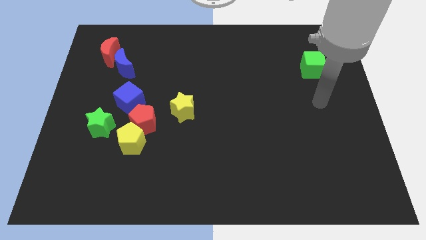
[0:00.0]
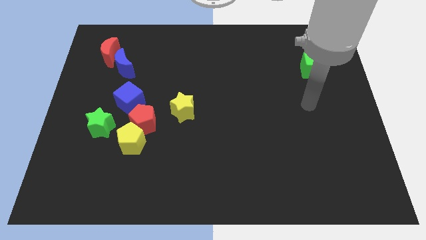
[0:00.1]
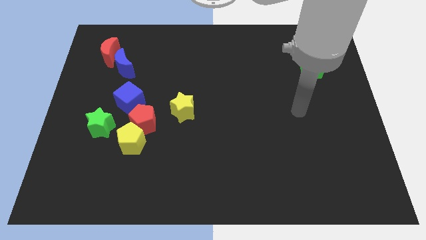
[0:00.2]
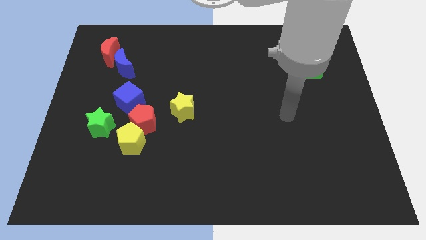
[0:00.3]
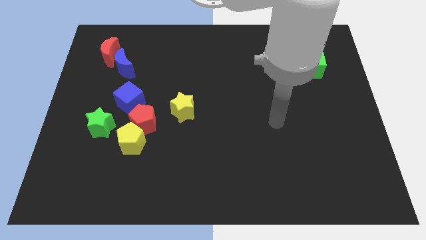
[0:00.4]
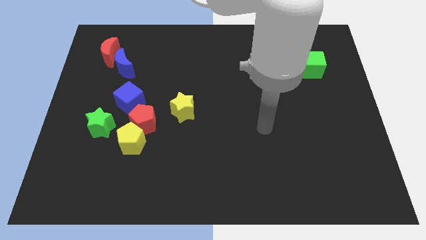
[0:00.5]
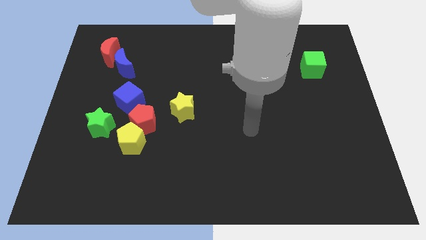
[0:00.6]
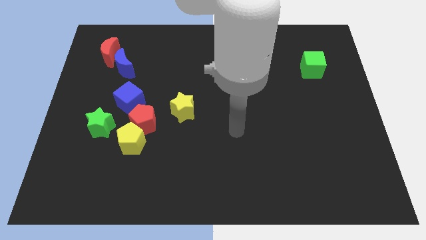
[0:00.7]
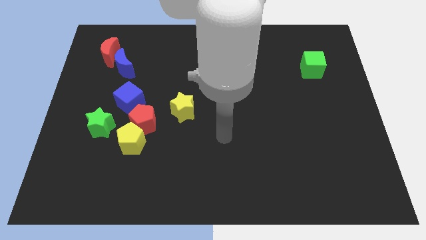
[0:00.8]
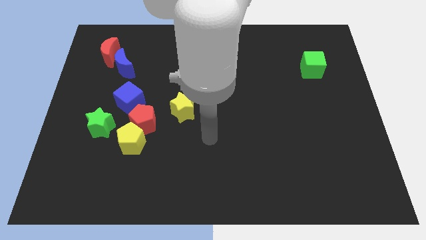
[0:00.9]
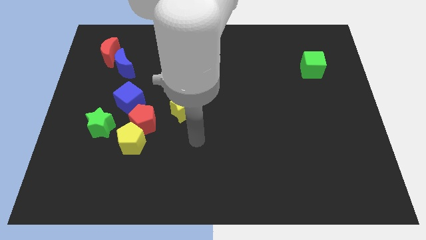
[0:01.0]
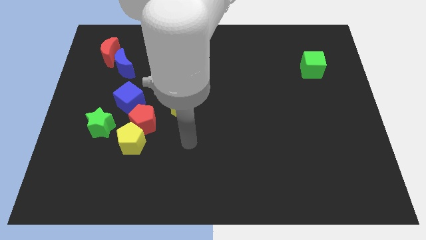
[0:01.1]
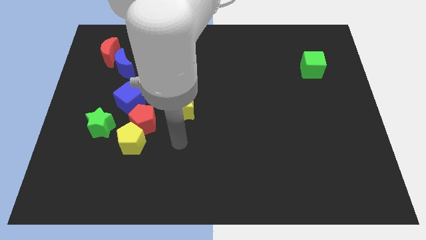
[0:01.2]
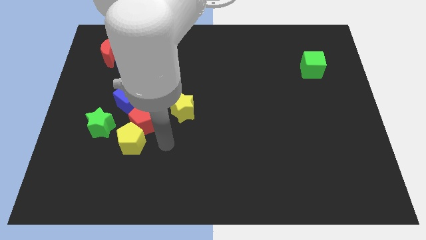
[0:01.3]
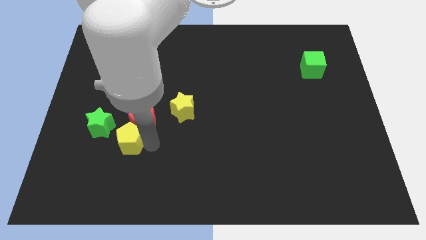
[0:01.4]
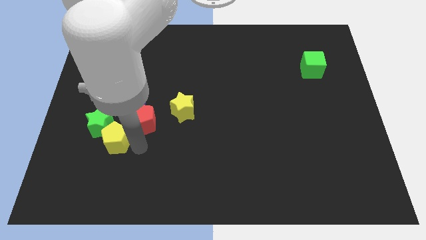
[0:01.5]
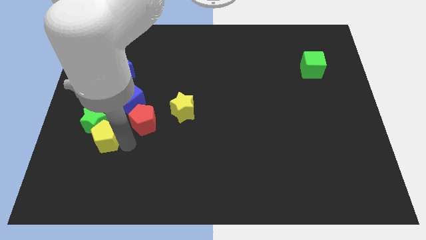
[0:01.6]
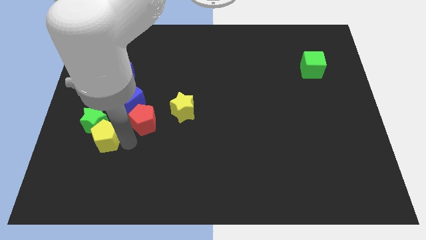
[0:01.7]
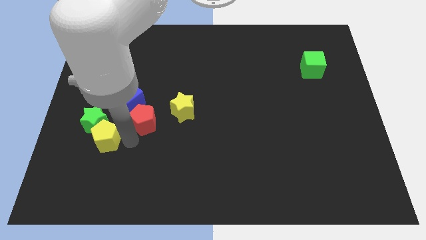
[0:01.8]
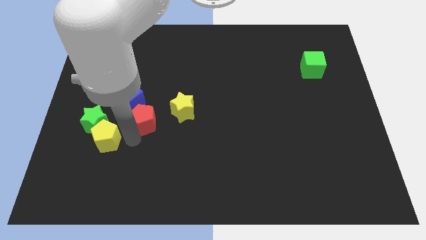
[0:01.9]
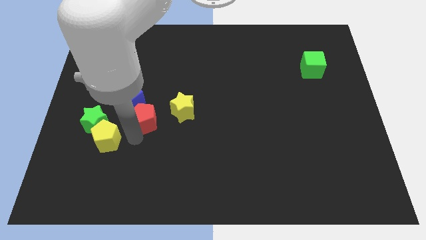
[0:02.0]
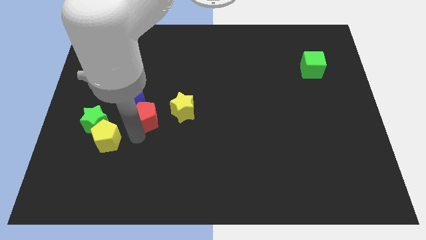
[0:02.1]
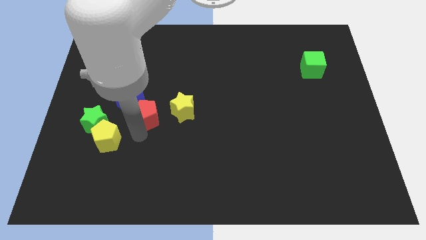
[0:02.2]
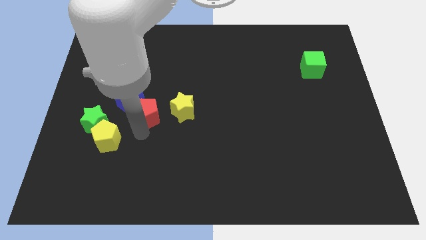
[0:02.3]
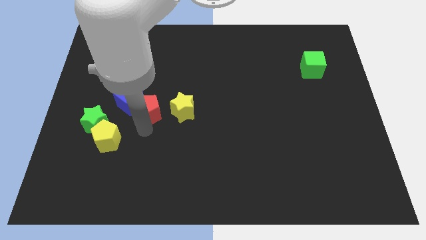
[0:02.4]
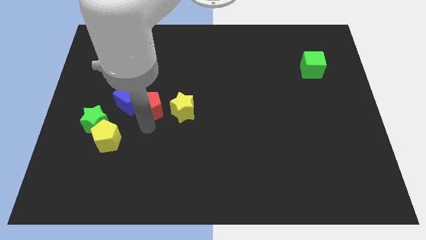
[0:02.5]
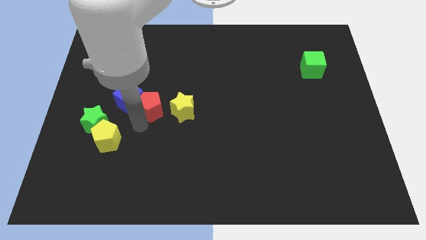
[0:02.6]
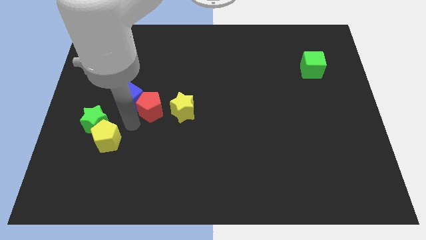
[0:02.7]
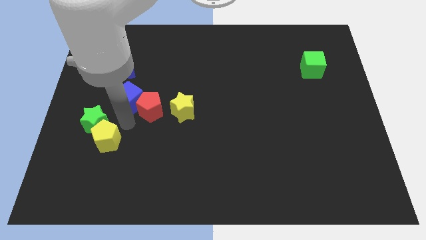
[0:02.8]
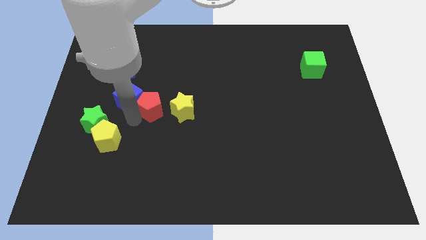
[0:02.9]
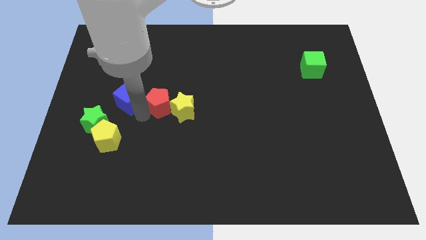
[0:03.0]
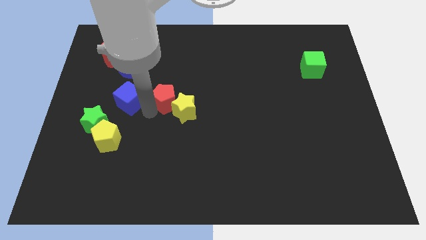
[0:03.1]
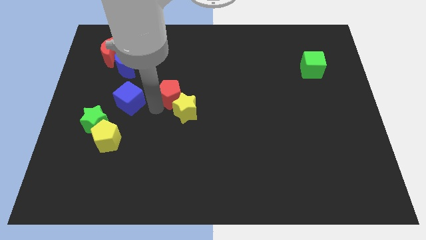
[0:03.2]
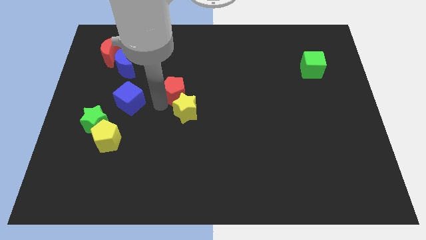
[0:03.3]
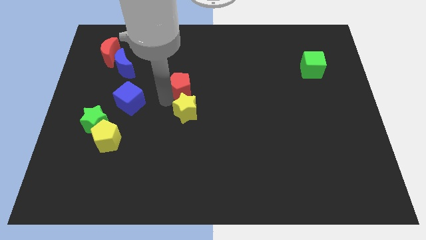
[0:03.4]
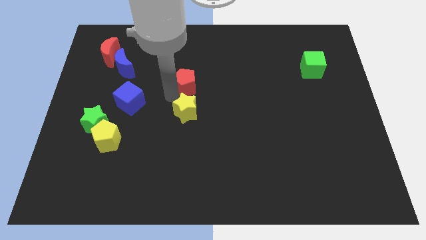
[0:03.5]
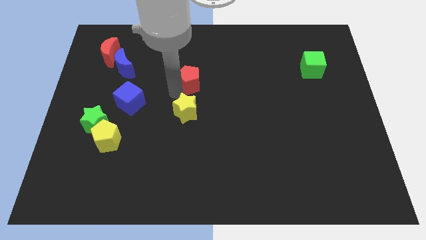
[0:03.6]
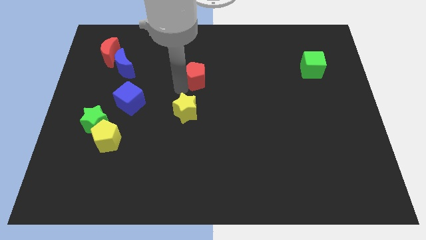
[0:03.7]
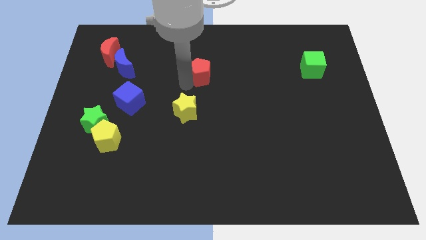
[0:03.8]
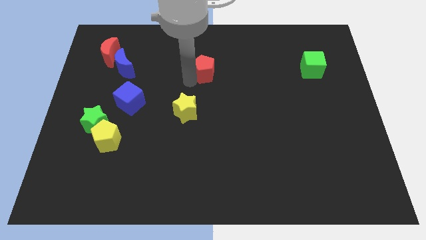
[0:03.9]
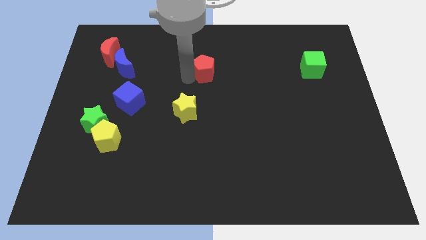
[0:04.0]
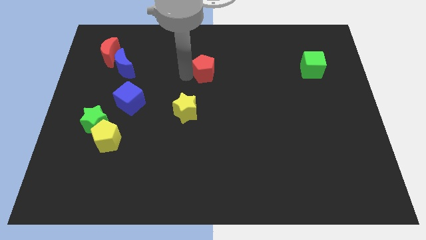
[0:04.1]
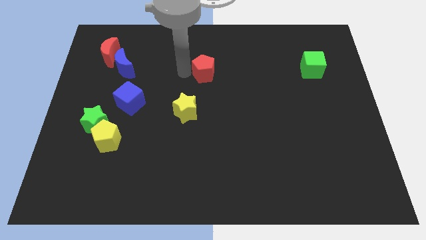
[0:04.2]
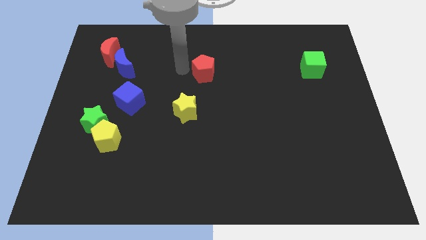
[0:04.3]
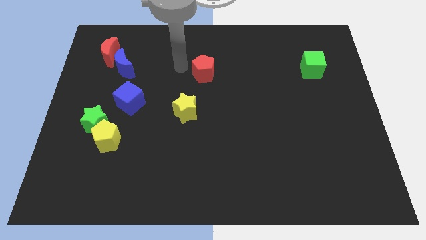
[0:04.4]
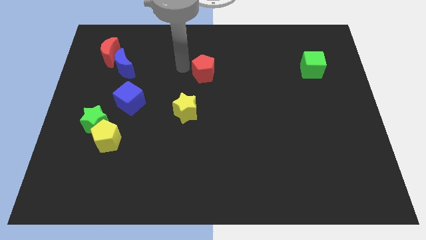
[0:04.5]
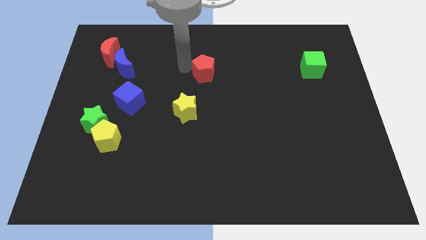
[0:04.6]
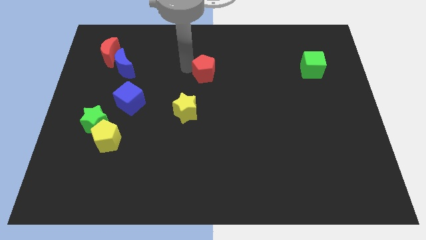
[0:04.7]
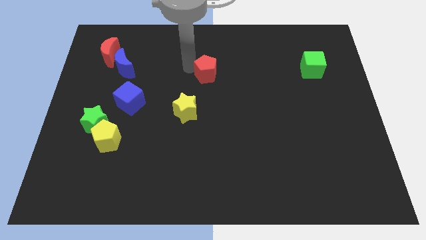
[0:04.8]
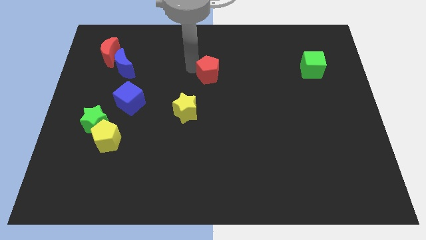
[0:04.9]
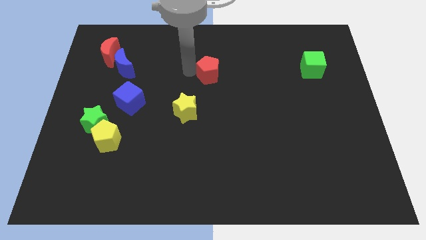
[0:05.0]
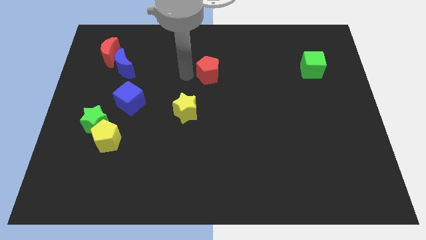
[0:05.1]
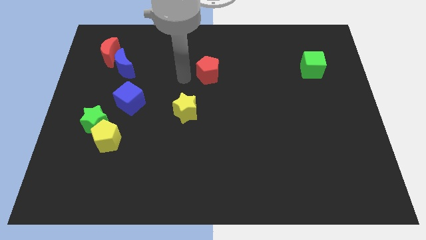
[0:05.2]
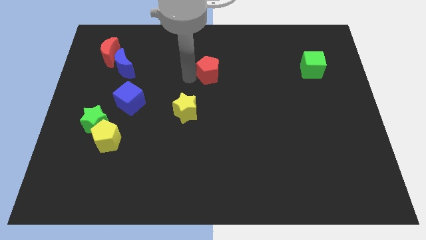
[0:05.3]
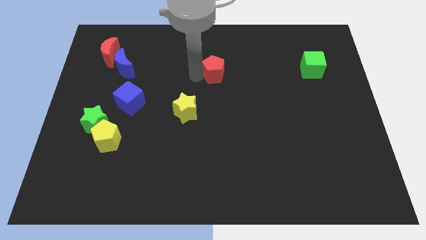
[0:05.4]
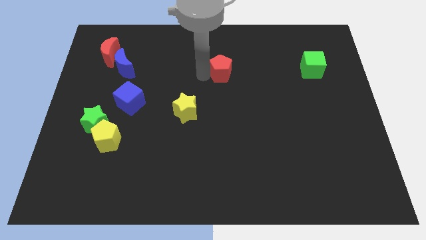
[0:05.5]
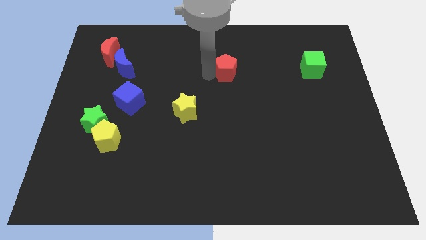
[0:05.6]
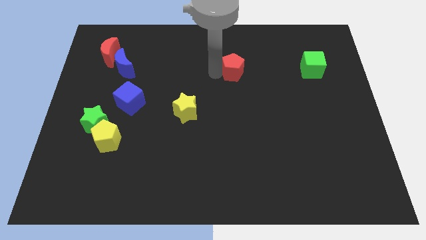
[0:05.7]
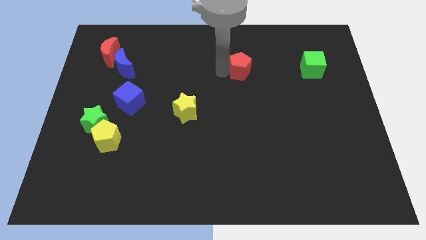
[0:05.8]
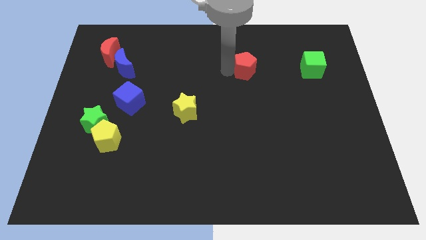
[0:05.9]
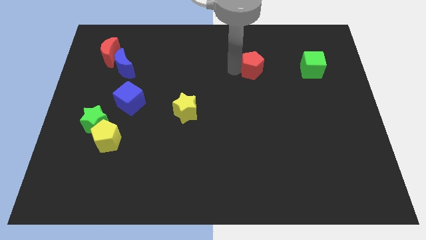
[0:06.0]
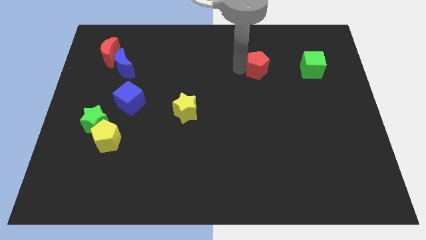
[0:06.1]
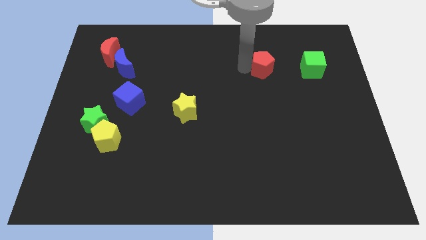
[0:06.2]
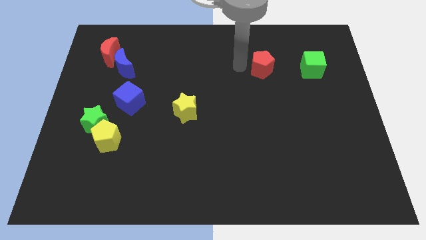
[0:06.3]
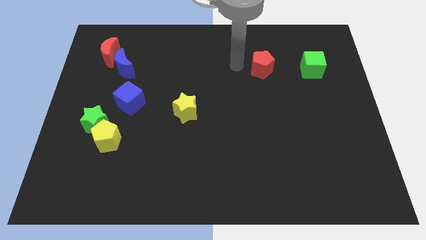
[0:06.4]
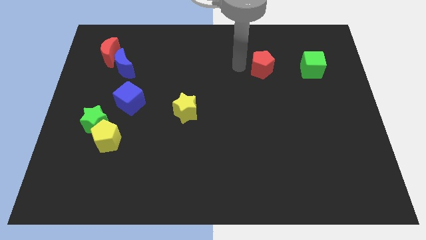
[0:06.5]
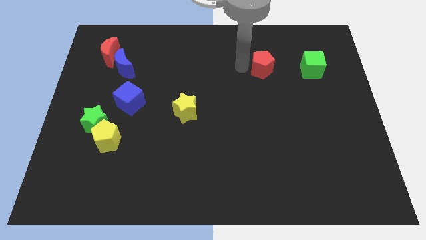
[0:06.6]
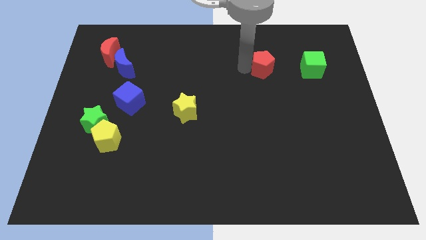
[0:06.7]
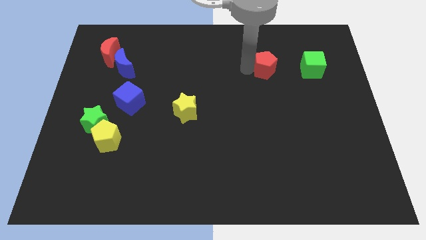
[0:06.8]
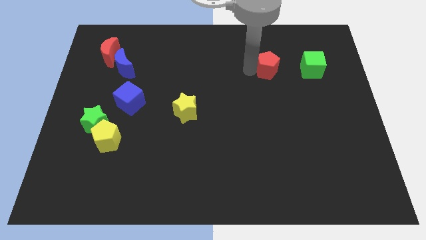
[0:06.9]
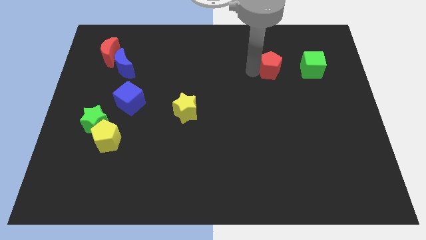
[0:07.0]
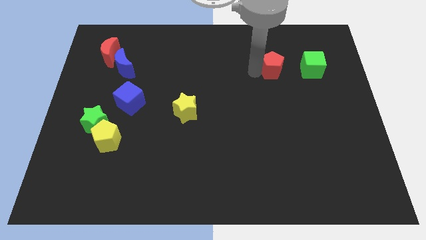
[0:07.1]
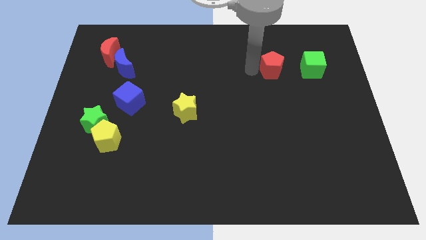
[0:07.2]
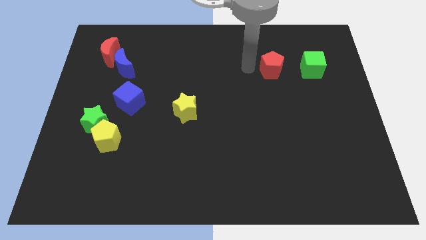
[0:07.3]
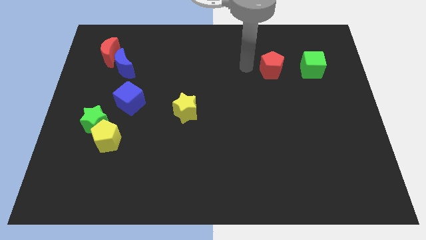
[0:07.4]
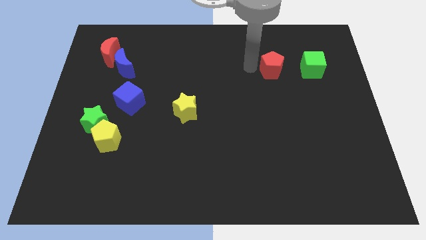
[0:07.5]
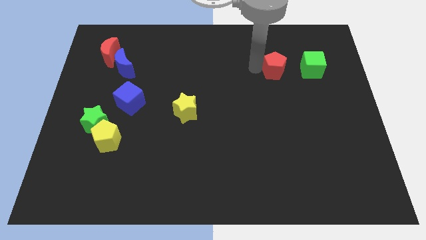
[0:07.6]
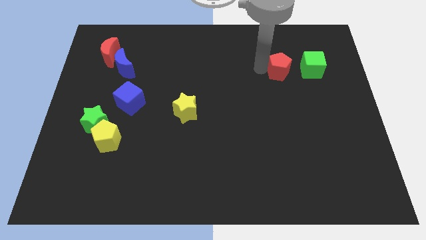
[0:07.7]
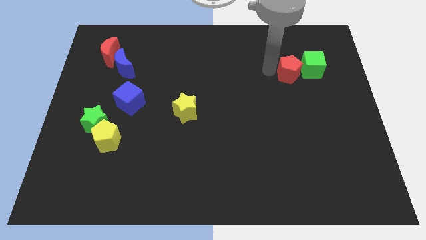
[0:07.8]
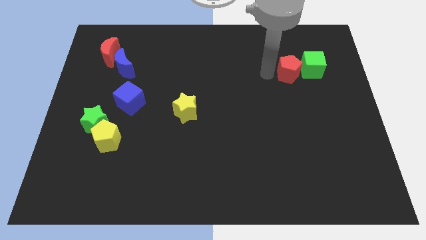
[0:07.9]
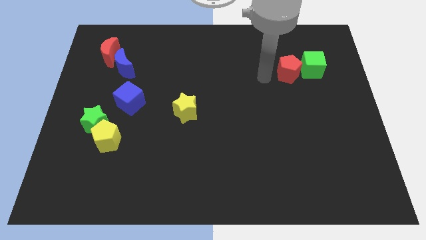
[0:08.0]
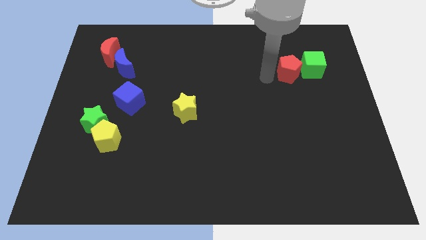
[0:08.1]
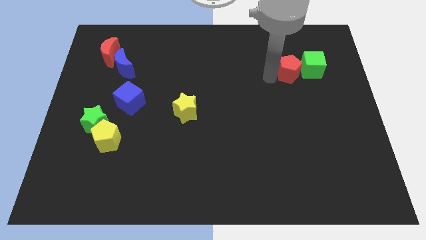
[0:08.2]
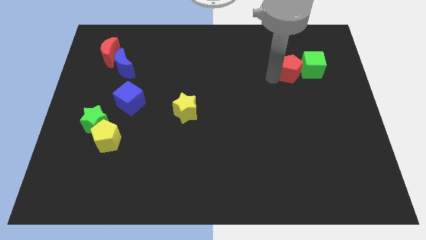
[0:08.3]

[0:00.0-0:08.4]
put the red pentagon next to the green cube
